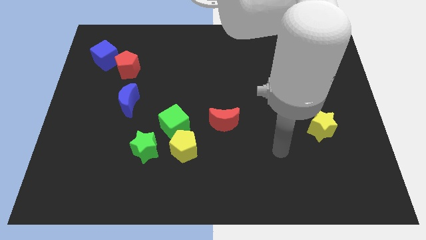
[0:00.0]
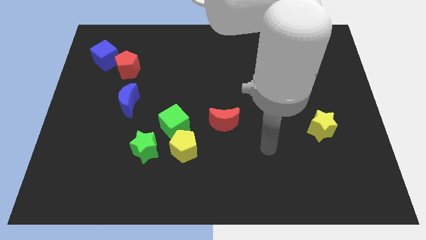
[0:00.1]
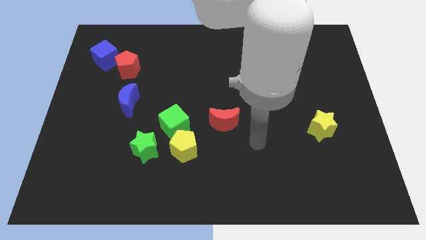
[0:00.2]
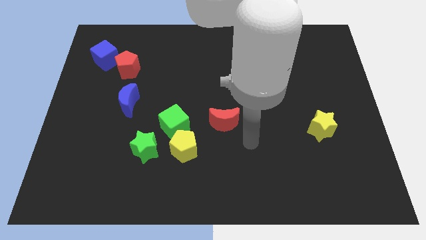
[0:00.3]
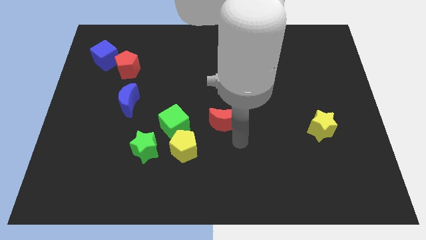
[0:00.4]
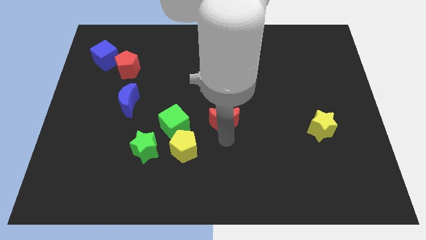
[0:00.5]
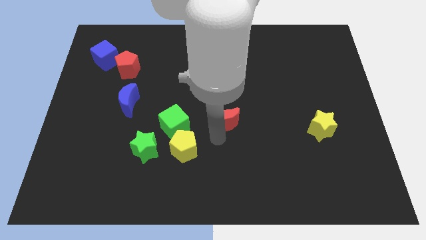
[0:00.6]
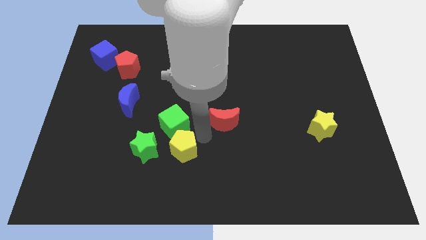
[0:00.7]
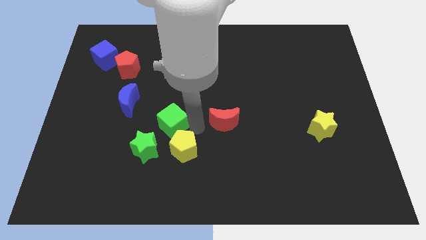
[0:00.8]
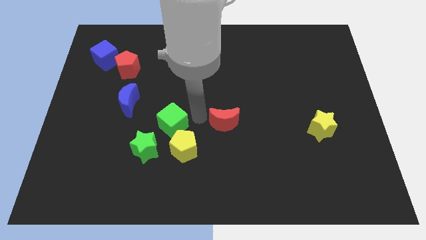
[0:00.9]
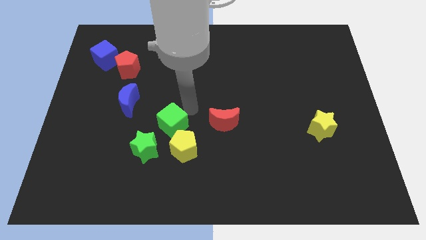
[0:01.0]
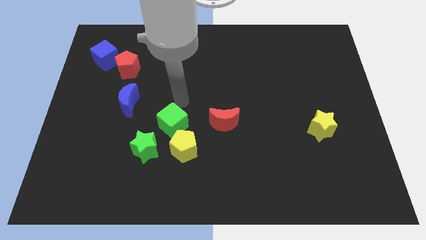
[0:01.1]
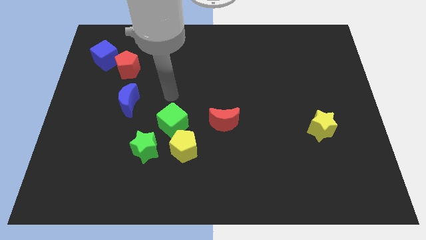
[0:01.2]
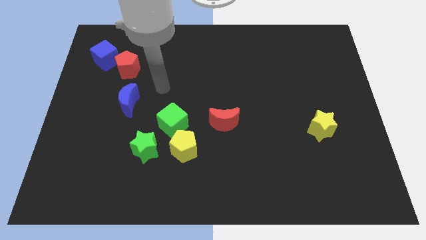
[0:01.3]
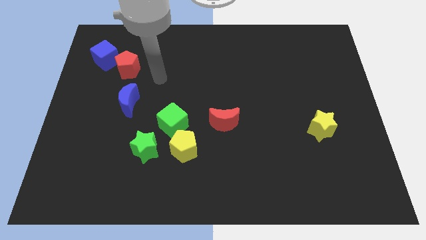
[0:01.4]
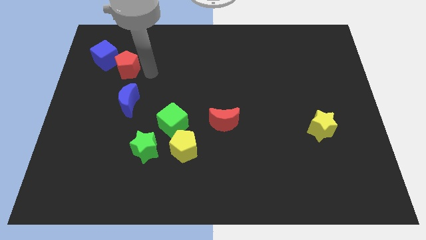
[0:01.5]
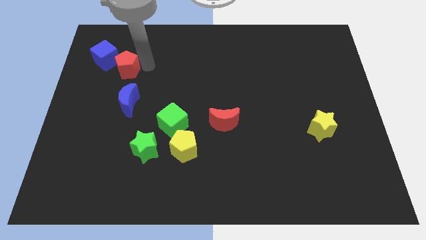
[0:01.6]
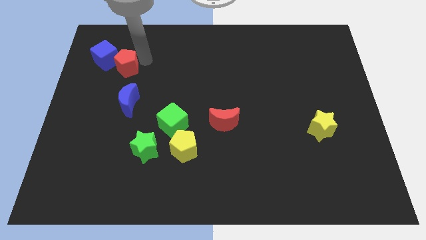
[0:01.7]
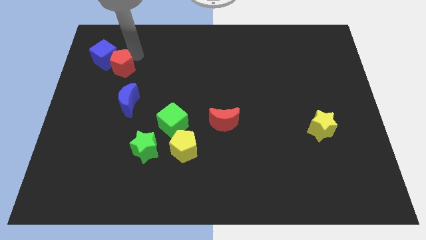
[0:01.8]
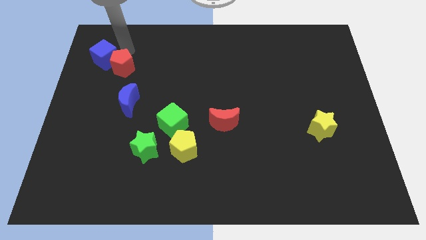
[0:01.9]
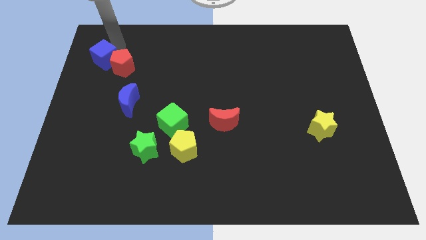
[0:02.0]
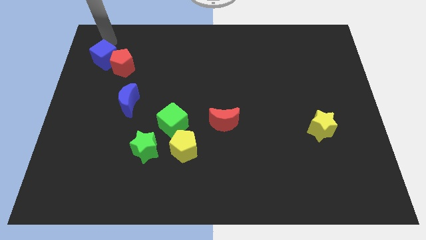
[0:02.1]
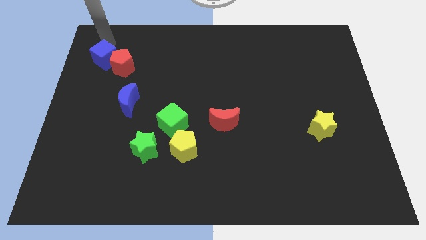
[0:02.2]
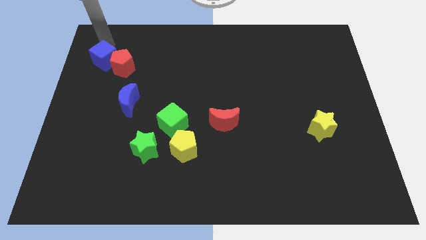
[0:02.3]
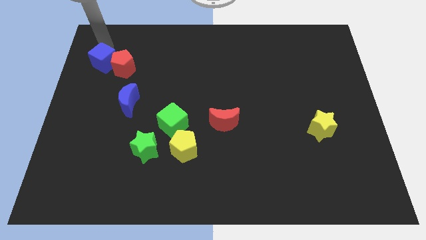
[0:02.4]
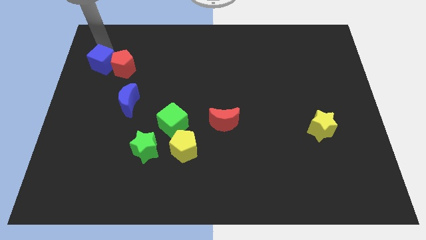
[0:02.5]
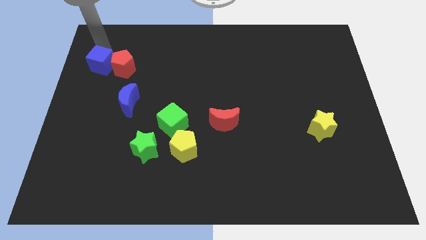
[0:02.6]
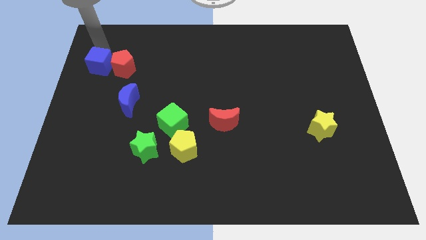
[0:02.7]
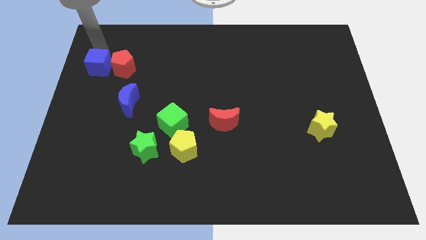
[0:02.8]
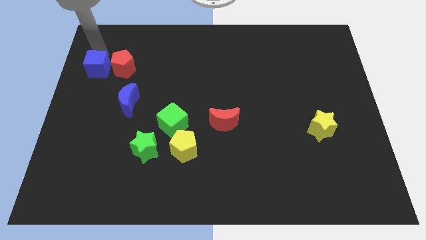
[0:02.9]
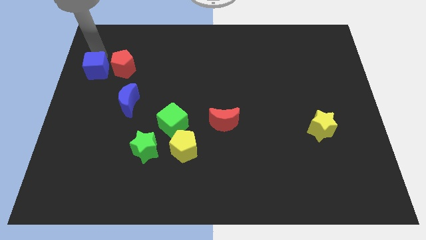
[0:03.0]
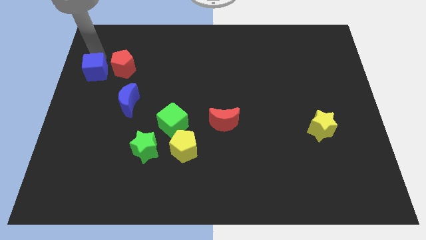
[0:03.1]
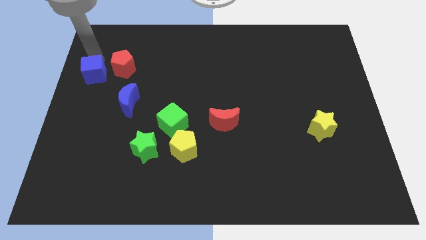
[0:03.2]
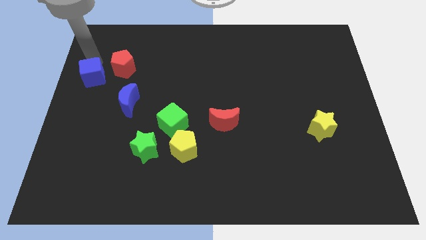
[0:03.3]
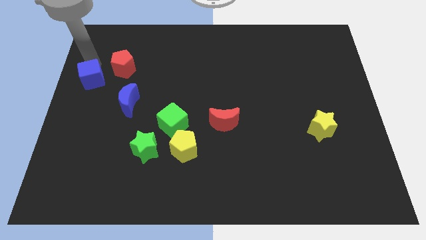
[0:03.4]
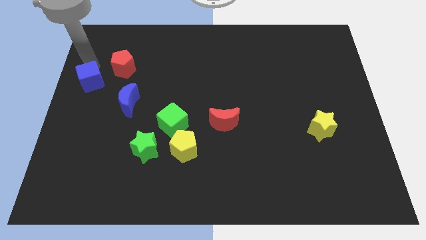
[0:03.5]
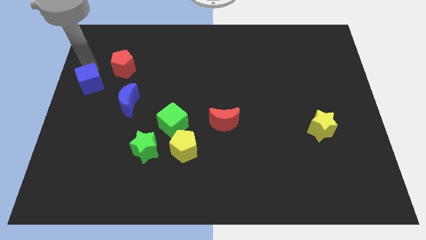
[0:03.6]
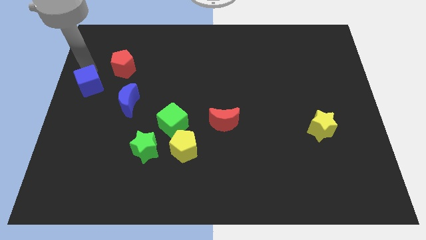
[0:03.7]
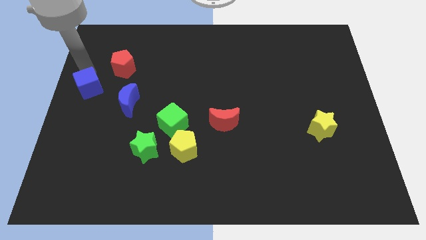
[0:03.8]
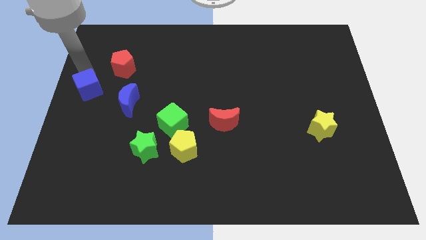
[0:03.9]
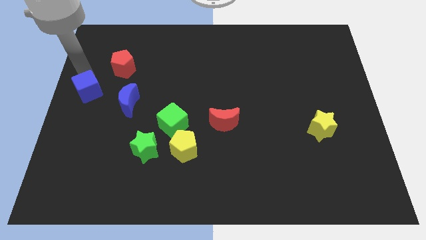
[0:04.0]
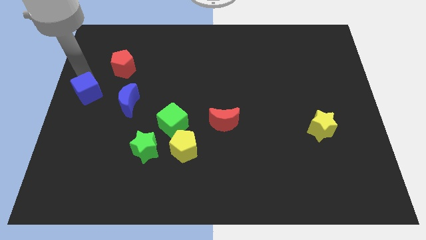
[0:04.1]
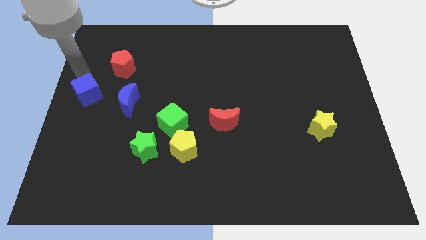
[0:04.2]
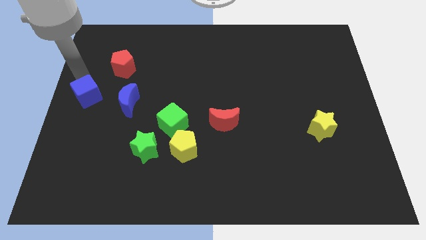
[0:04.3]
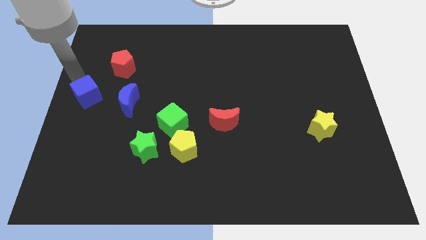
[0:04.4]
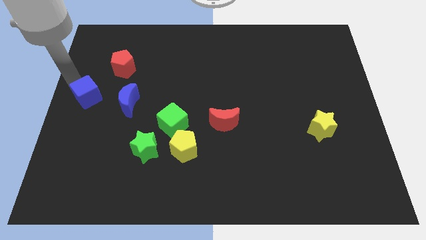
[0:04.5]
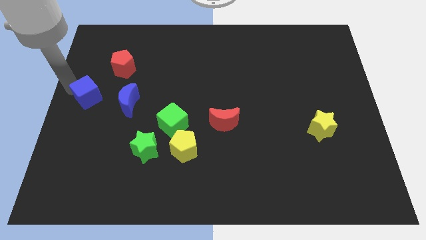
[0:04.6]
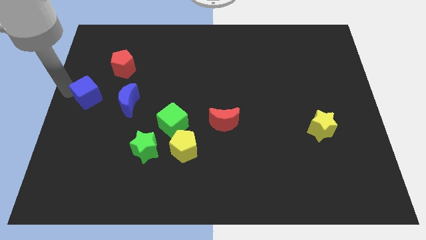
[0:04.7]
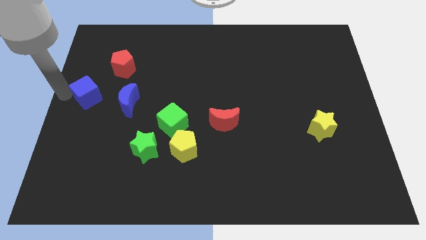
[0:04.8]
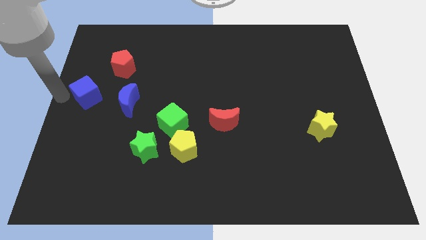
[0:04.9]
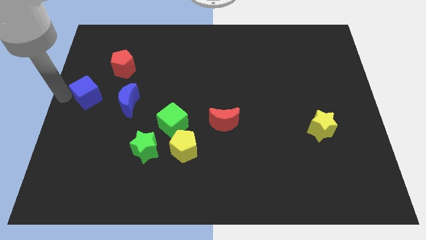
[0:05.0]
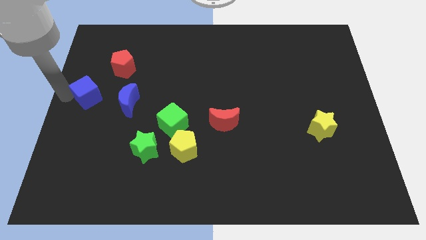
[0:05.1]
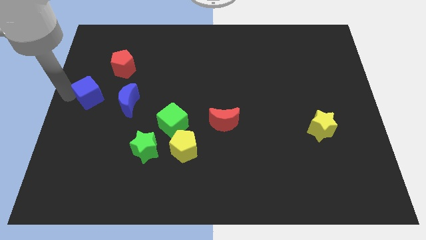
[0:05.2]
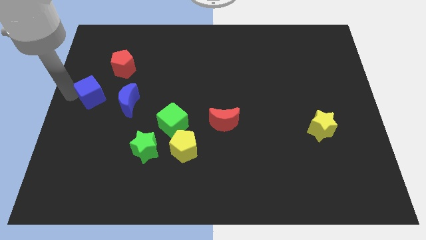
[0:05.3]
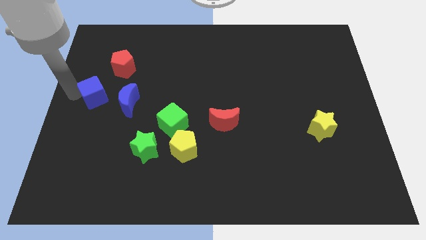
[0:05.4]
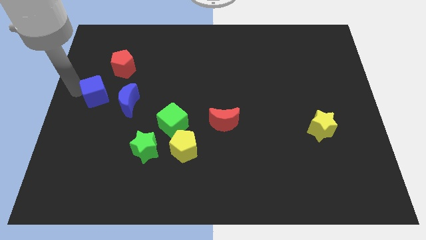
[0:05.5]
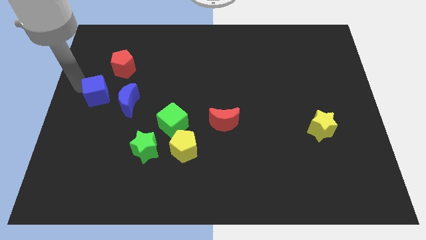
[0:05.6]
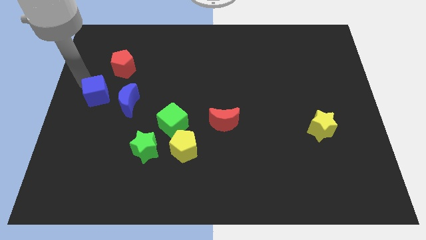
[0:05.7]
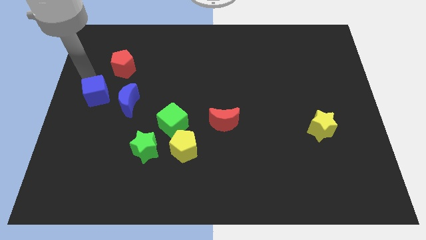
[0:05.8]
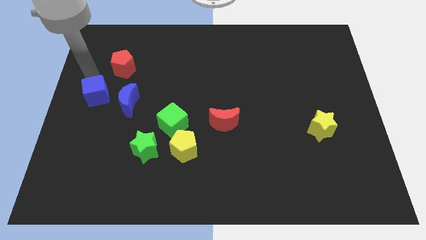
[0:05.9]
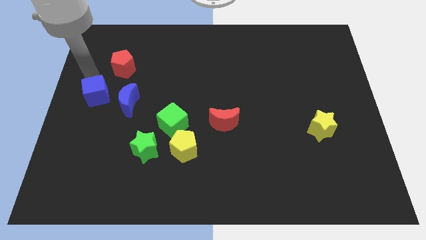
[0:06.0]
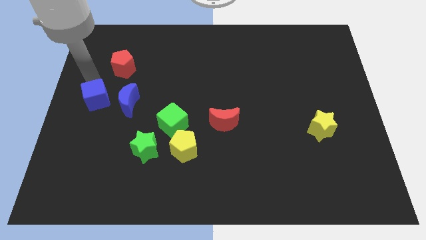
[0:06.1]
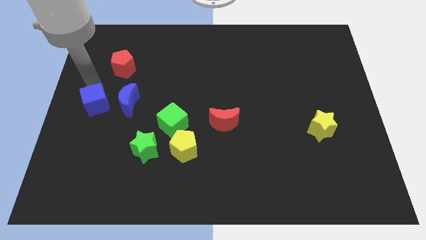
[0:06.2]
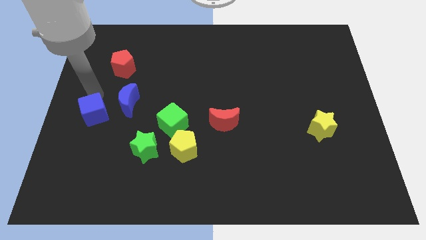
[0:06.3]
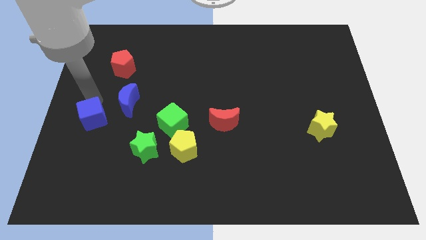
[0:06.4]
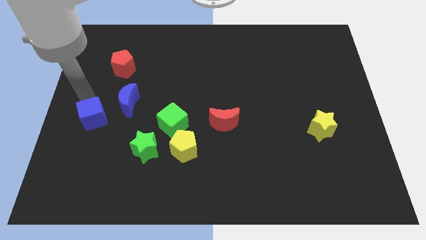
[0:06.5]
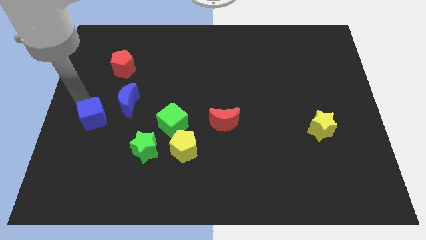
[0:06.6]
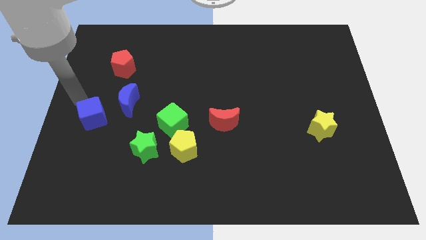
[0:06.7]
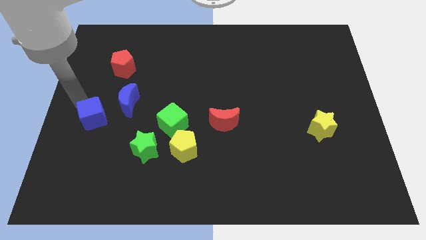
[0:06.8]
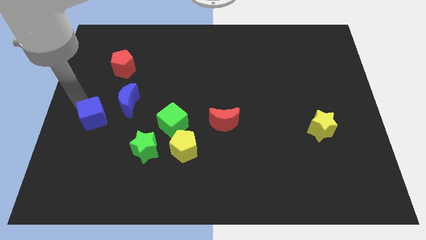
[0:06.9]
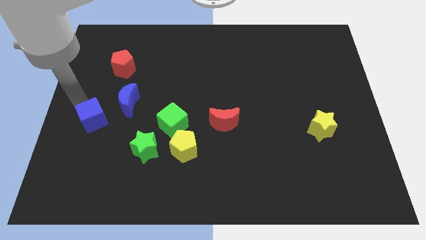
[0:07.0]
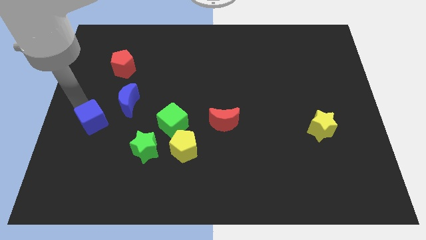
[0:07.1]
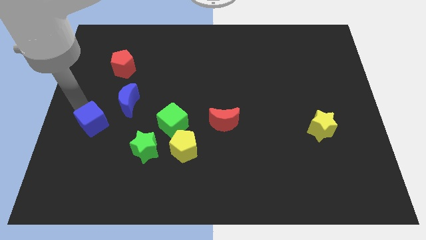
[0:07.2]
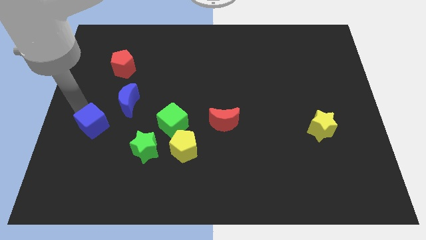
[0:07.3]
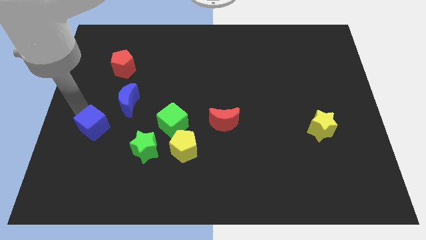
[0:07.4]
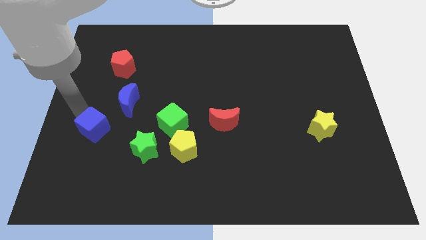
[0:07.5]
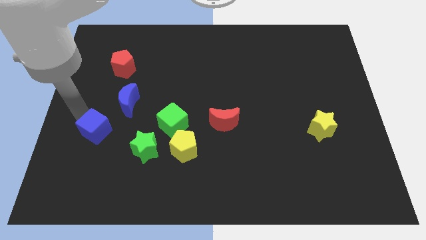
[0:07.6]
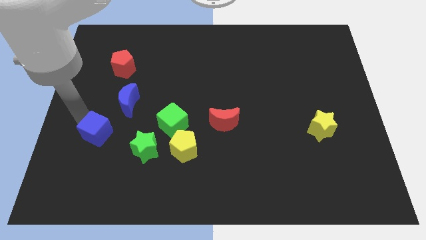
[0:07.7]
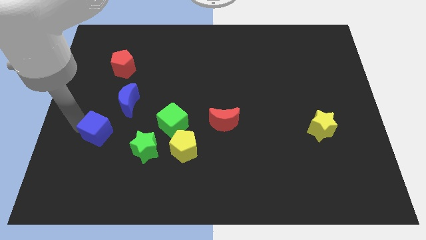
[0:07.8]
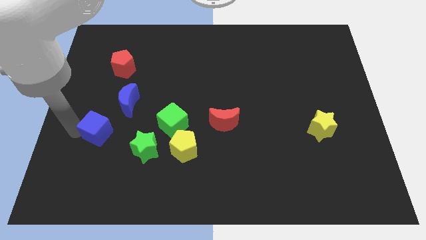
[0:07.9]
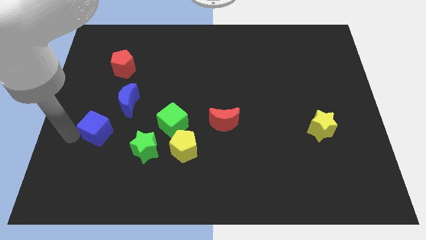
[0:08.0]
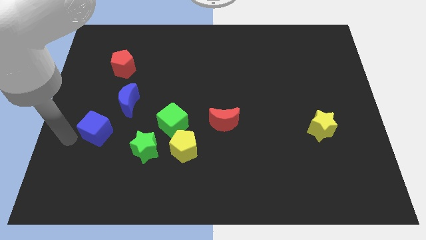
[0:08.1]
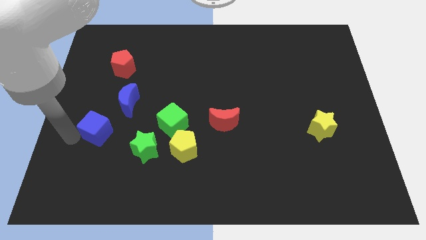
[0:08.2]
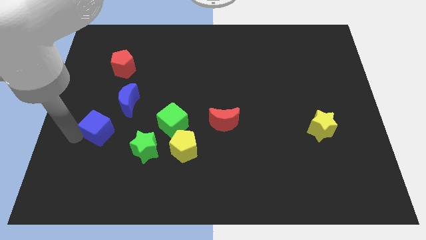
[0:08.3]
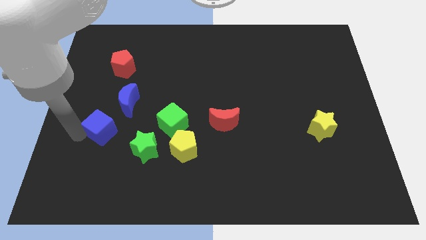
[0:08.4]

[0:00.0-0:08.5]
put the blue cube just left of the green cube
